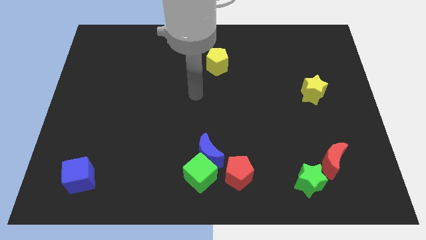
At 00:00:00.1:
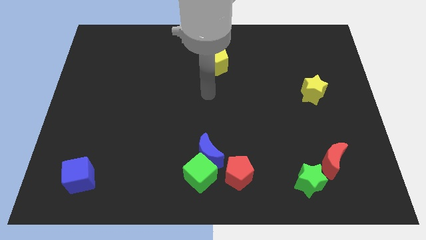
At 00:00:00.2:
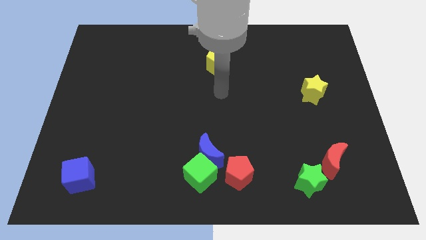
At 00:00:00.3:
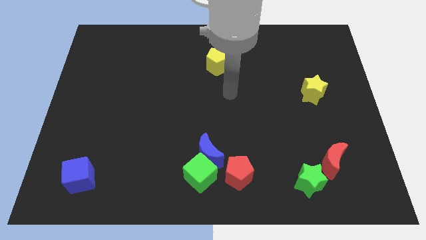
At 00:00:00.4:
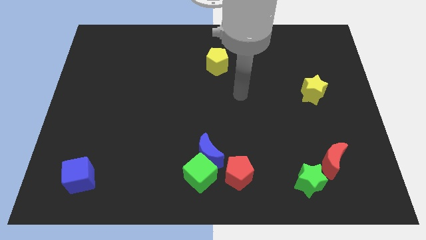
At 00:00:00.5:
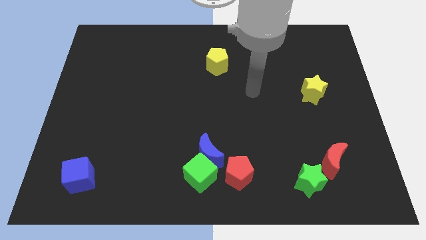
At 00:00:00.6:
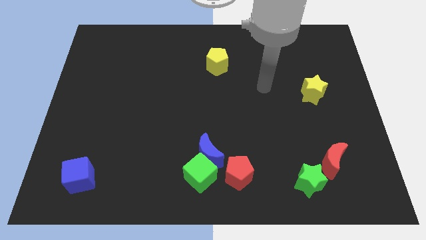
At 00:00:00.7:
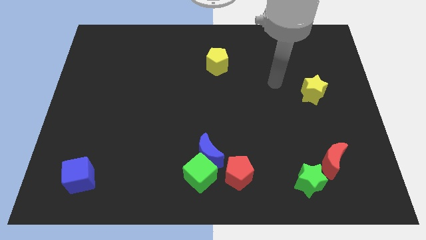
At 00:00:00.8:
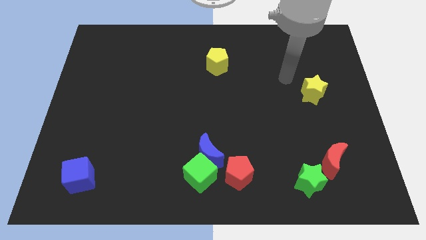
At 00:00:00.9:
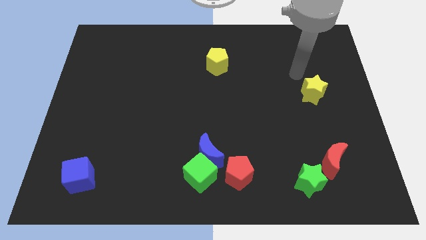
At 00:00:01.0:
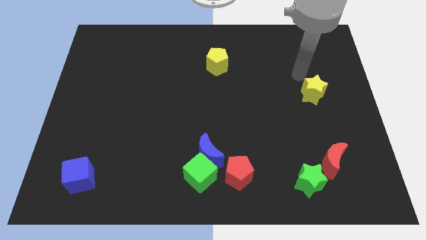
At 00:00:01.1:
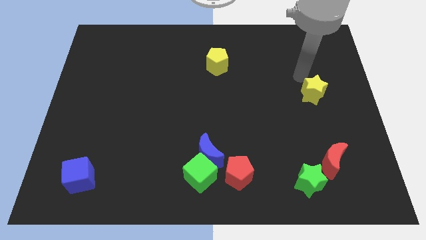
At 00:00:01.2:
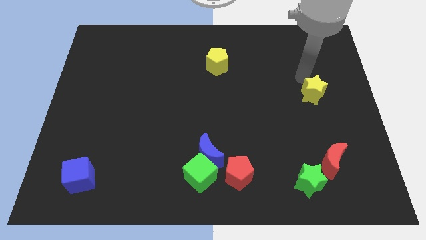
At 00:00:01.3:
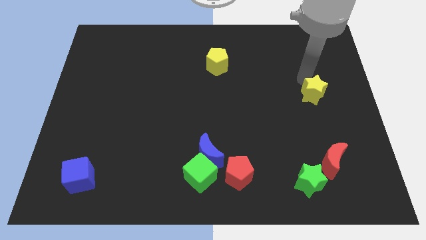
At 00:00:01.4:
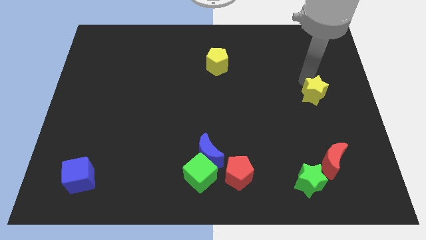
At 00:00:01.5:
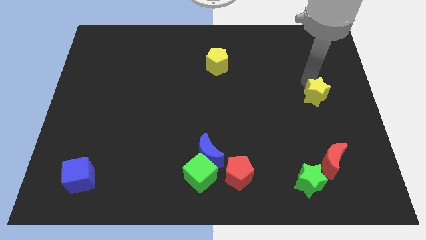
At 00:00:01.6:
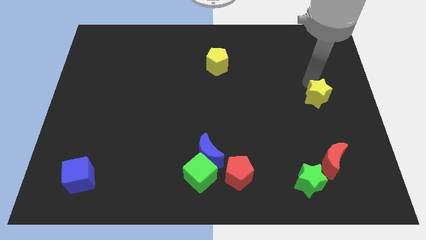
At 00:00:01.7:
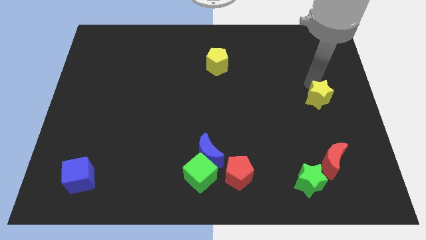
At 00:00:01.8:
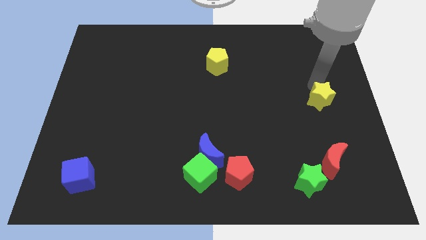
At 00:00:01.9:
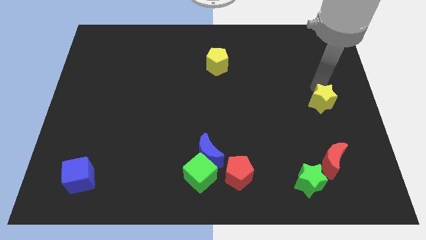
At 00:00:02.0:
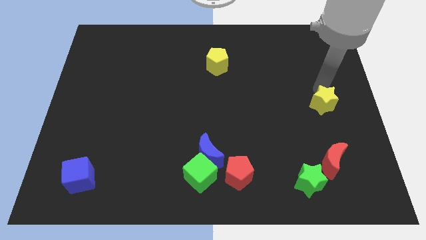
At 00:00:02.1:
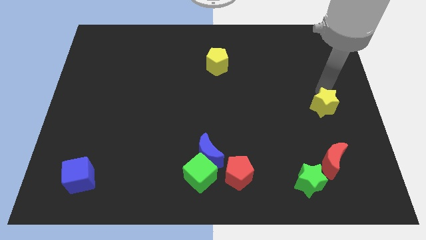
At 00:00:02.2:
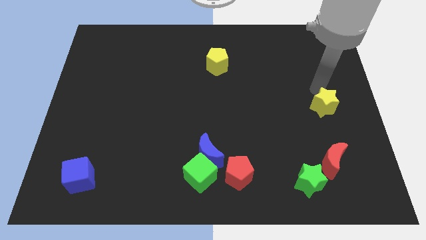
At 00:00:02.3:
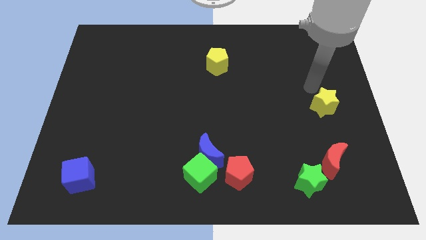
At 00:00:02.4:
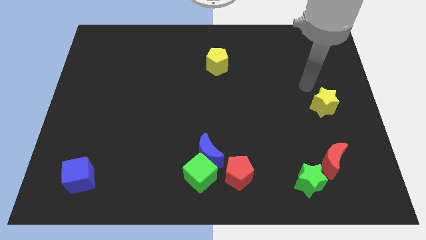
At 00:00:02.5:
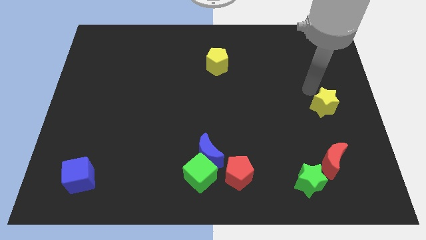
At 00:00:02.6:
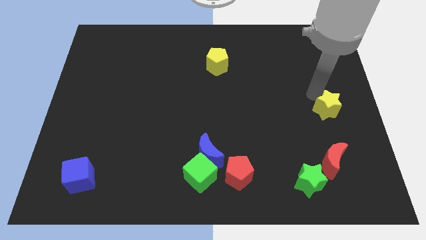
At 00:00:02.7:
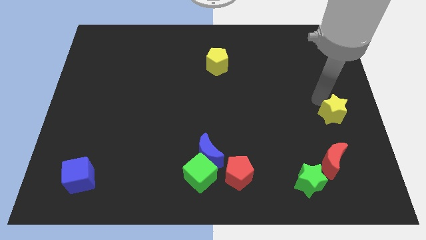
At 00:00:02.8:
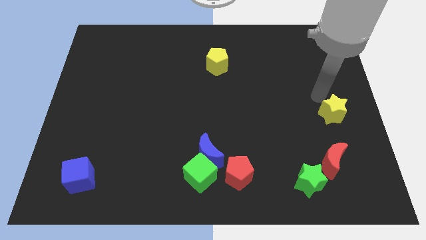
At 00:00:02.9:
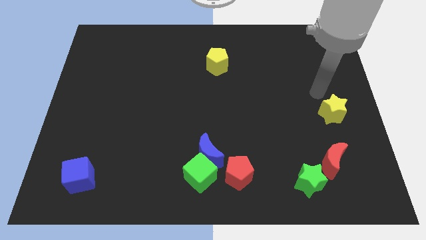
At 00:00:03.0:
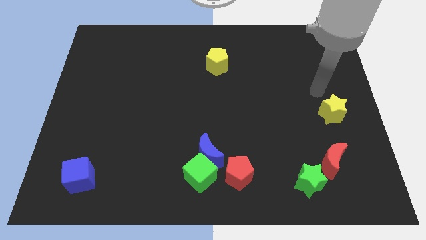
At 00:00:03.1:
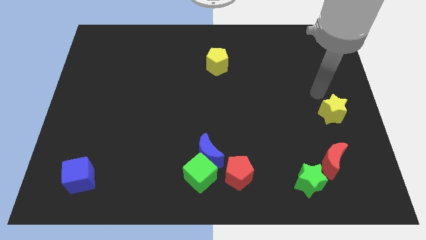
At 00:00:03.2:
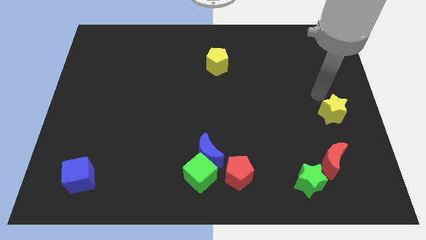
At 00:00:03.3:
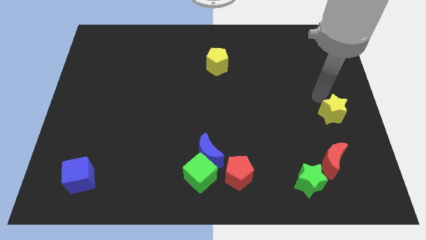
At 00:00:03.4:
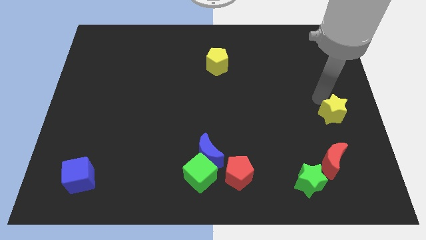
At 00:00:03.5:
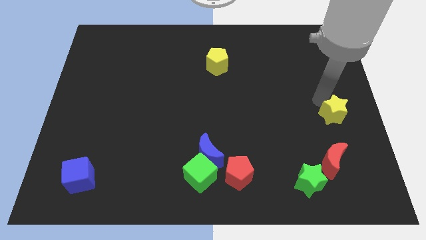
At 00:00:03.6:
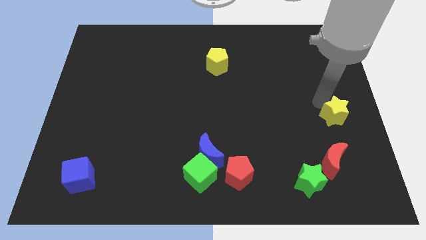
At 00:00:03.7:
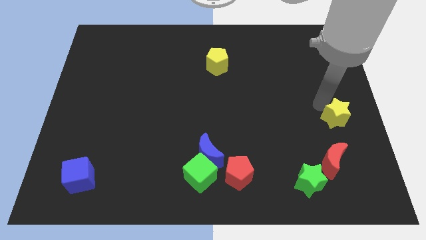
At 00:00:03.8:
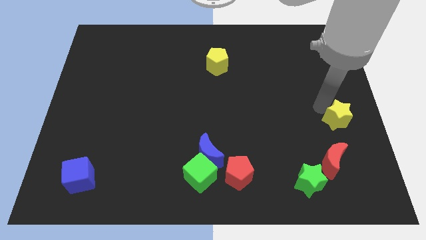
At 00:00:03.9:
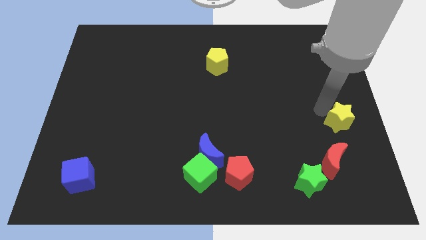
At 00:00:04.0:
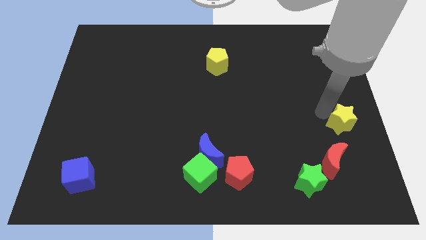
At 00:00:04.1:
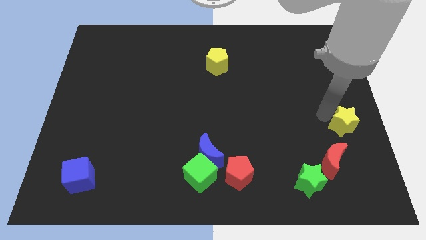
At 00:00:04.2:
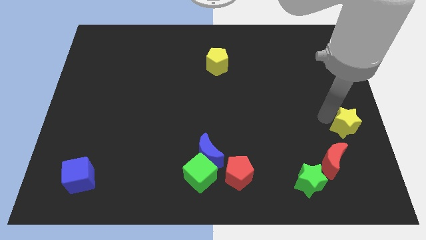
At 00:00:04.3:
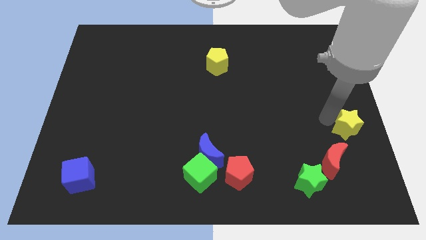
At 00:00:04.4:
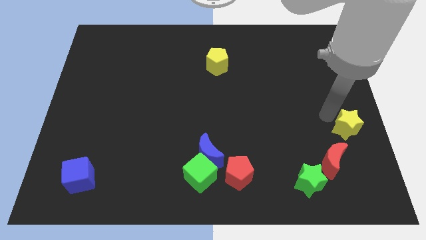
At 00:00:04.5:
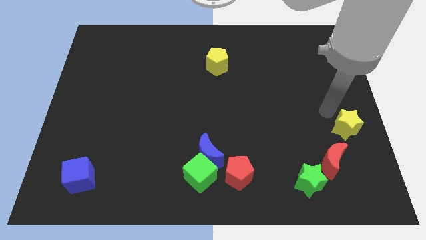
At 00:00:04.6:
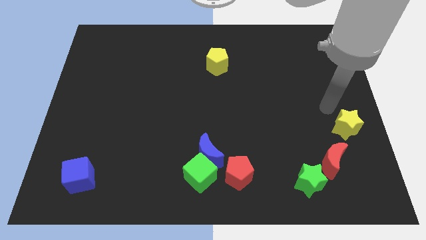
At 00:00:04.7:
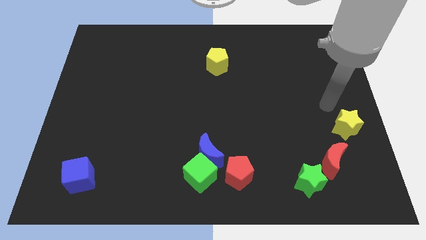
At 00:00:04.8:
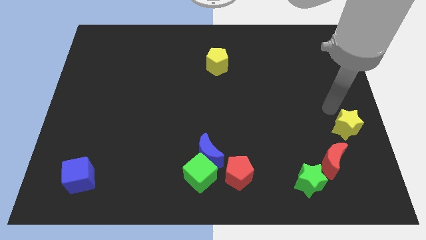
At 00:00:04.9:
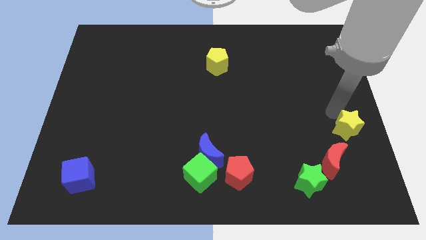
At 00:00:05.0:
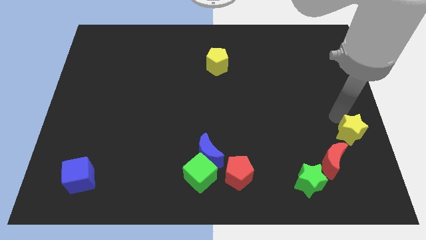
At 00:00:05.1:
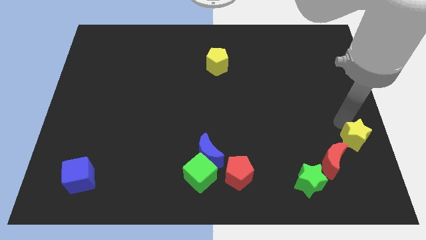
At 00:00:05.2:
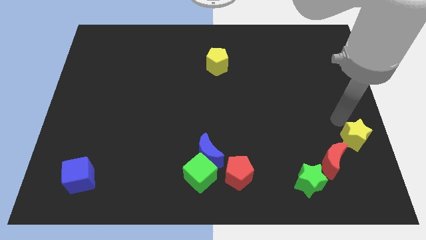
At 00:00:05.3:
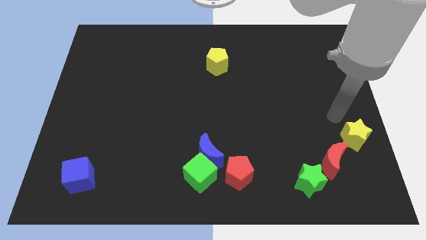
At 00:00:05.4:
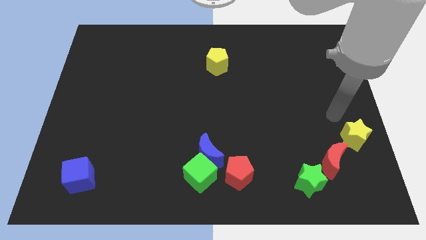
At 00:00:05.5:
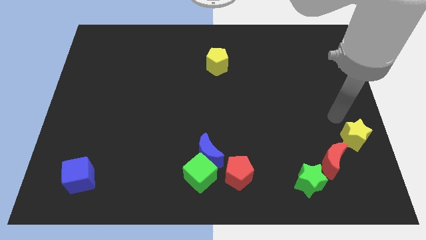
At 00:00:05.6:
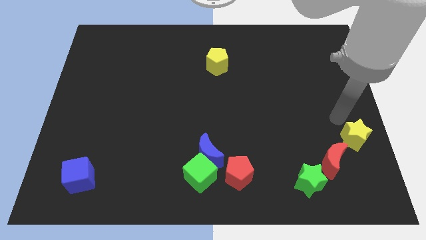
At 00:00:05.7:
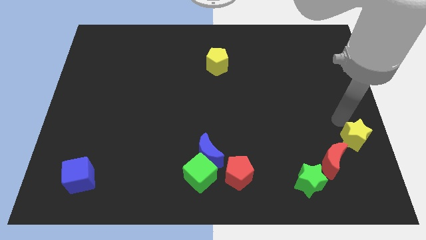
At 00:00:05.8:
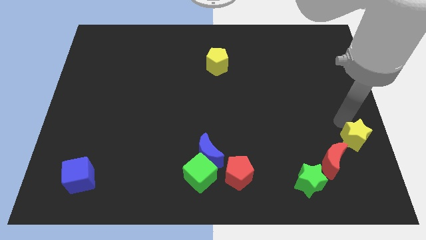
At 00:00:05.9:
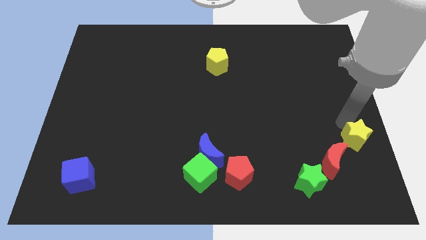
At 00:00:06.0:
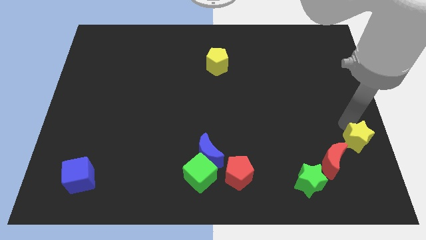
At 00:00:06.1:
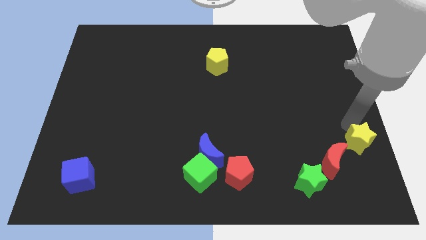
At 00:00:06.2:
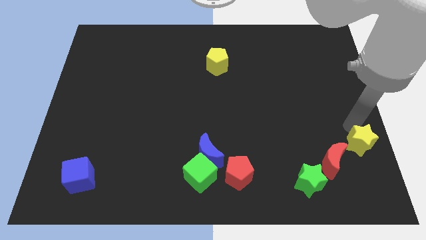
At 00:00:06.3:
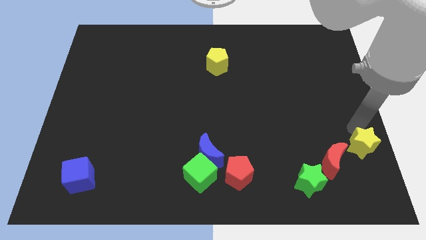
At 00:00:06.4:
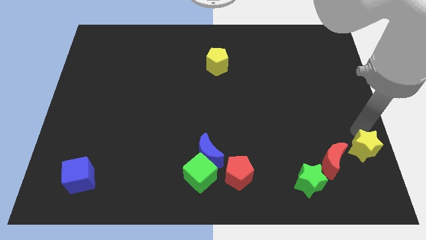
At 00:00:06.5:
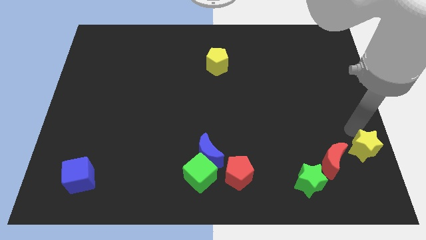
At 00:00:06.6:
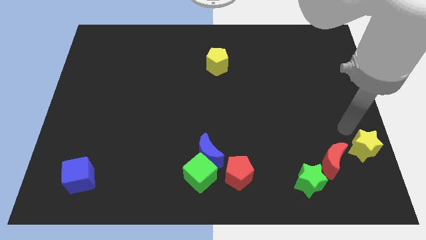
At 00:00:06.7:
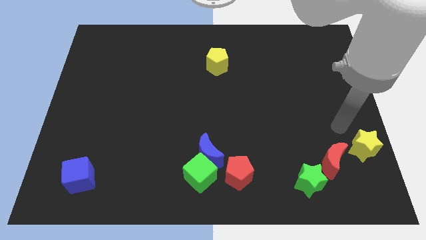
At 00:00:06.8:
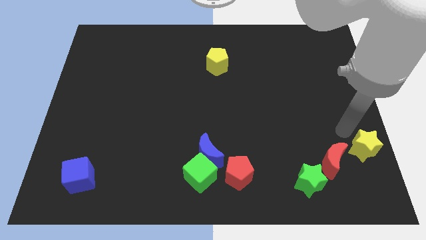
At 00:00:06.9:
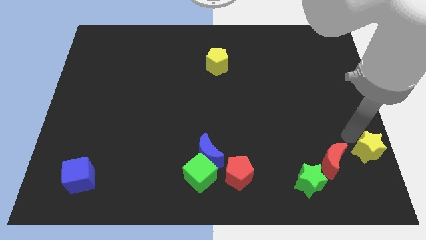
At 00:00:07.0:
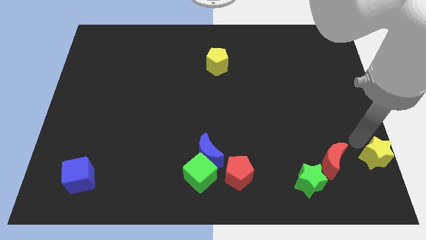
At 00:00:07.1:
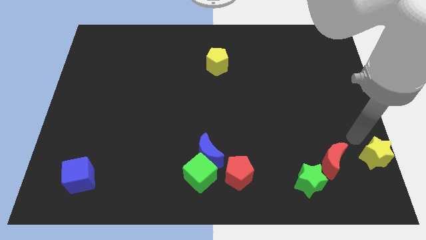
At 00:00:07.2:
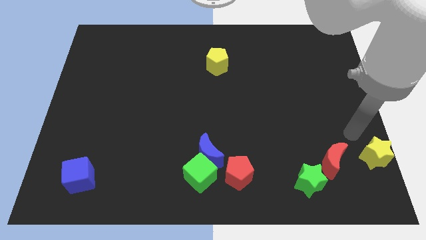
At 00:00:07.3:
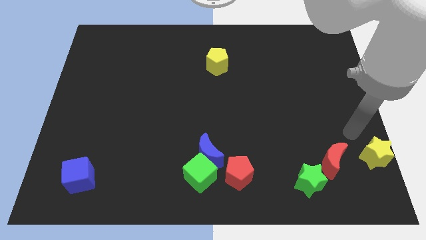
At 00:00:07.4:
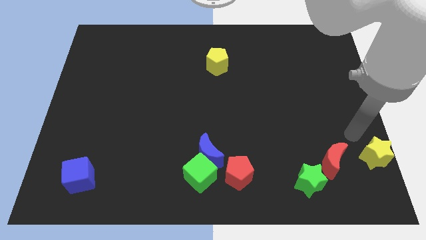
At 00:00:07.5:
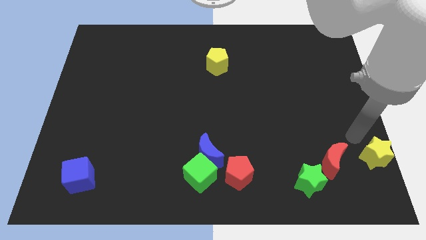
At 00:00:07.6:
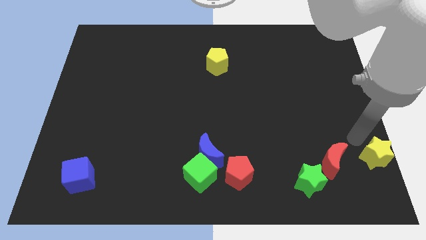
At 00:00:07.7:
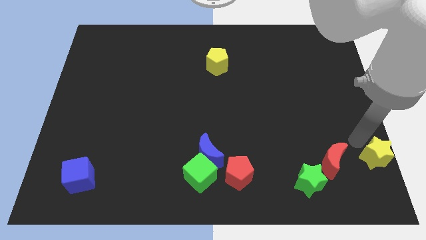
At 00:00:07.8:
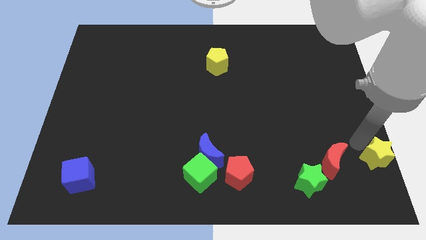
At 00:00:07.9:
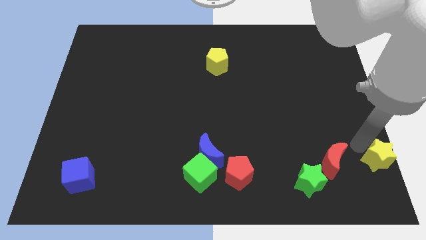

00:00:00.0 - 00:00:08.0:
put the yellow star to the lower right corner
